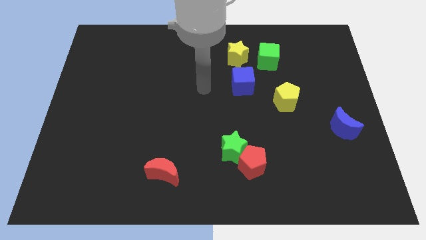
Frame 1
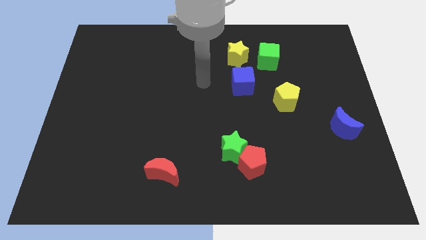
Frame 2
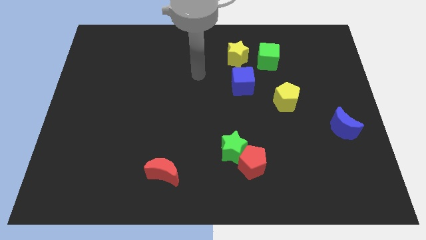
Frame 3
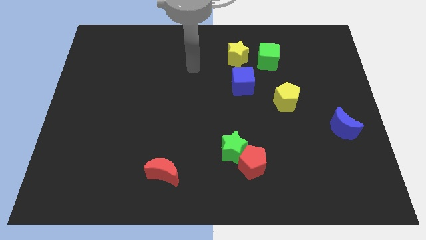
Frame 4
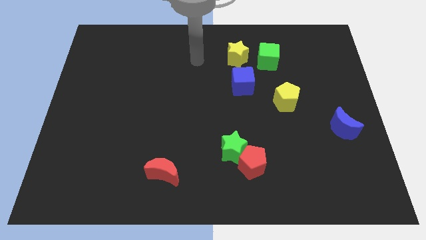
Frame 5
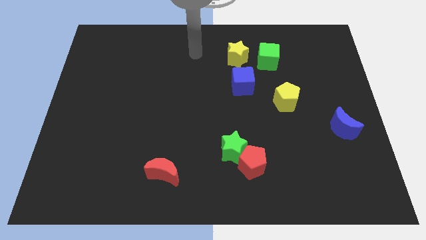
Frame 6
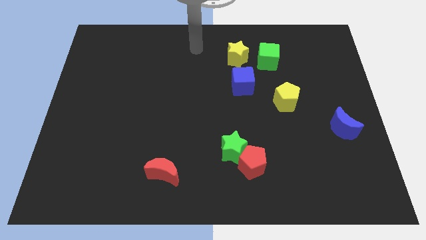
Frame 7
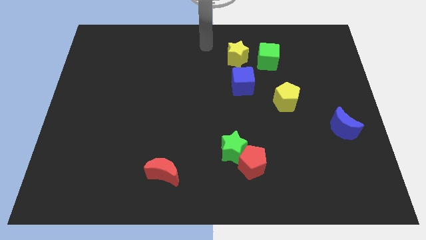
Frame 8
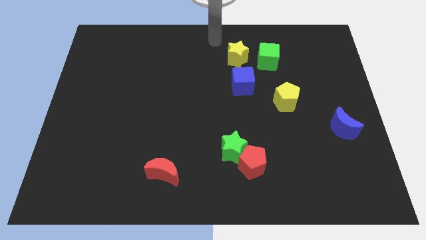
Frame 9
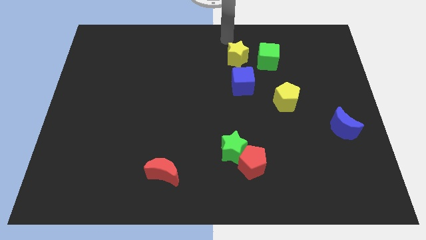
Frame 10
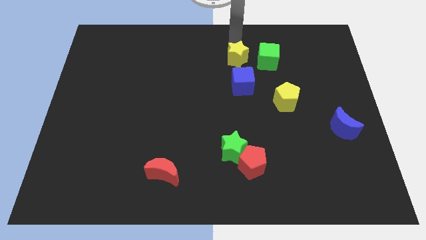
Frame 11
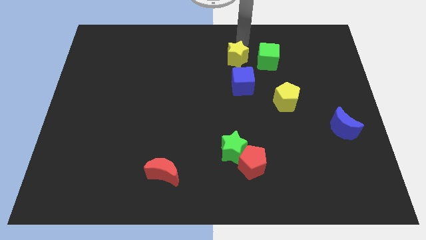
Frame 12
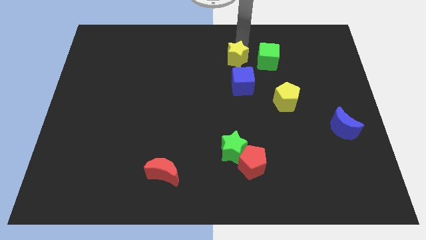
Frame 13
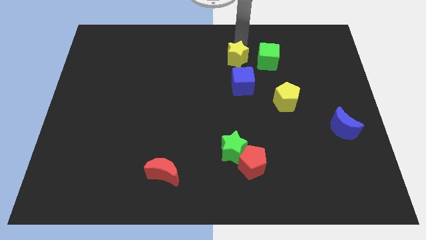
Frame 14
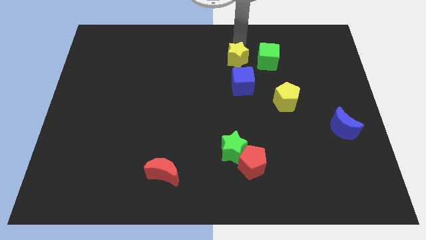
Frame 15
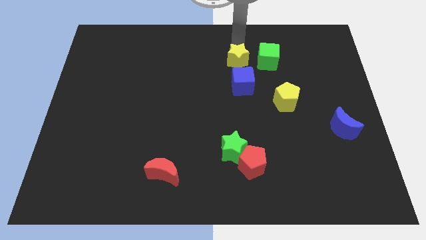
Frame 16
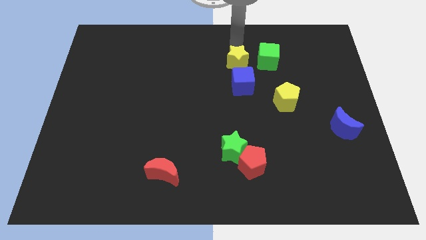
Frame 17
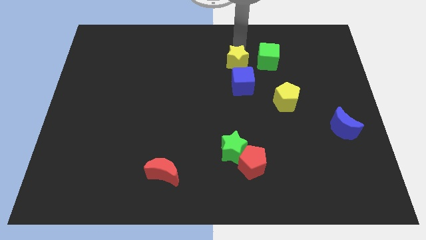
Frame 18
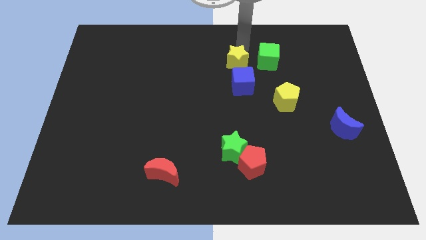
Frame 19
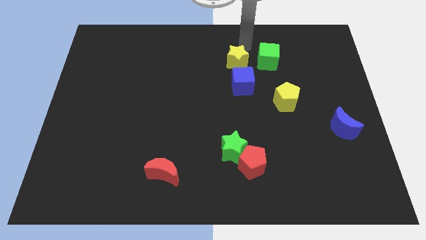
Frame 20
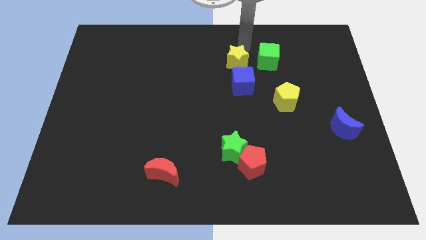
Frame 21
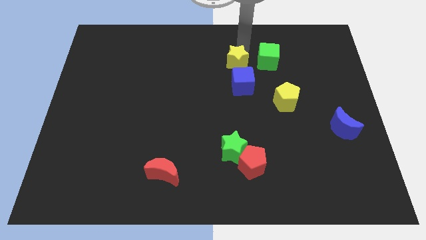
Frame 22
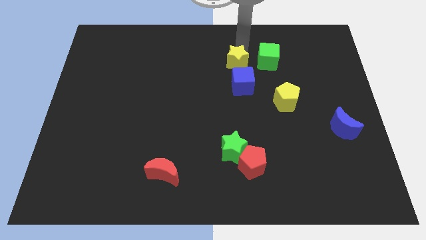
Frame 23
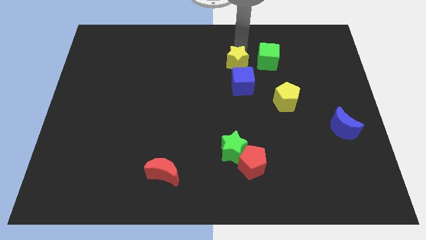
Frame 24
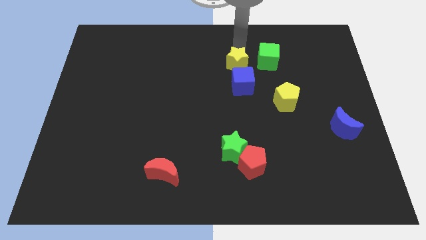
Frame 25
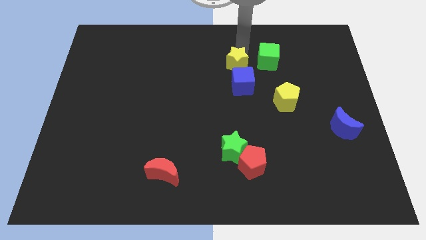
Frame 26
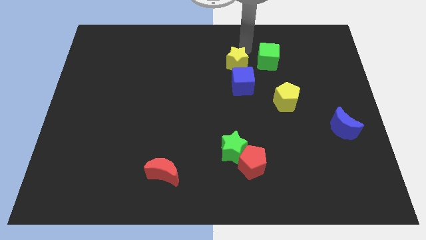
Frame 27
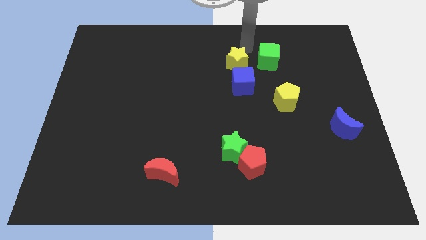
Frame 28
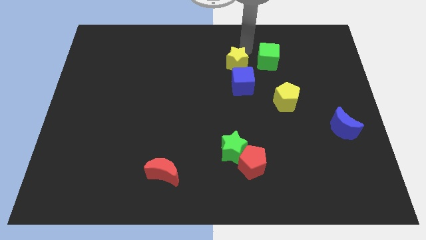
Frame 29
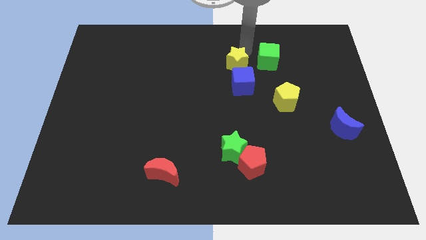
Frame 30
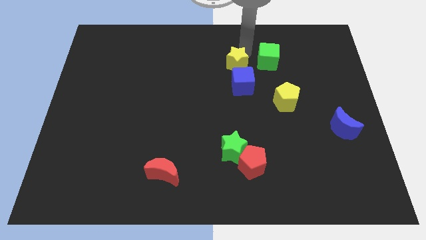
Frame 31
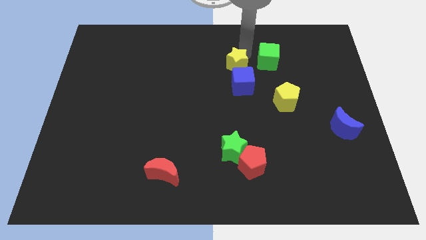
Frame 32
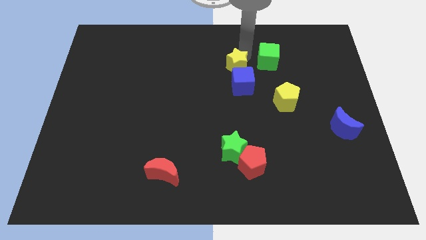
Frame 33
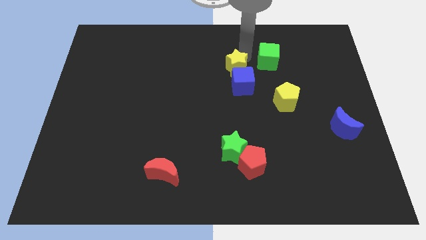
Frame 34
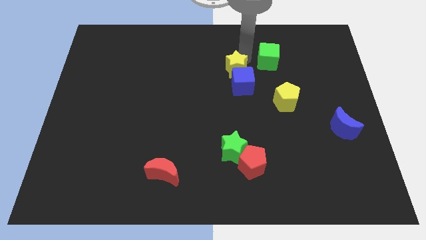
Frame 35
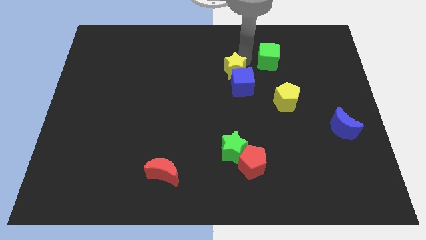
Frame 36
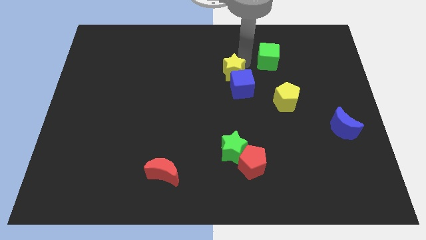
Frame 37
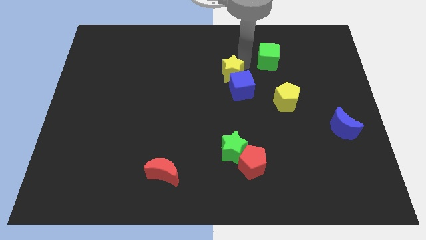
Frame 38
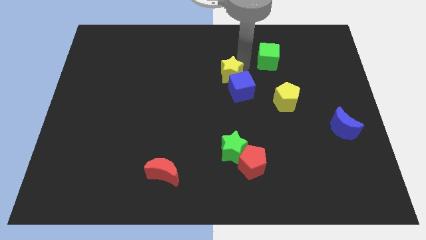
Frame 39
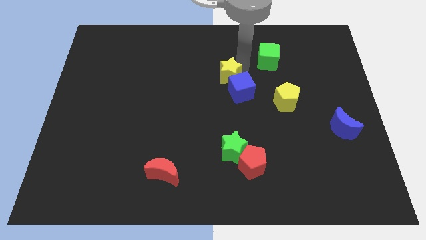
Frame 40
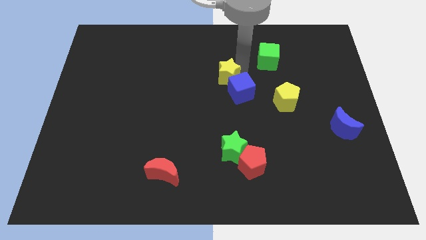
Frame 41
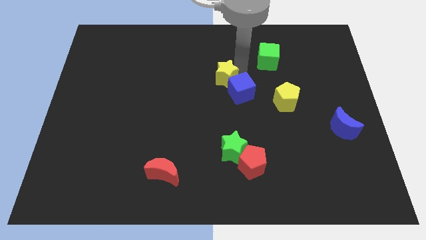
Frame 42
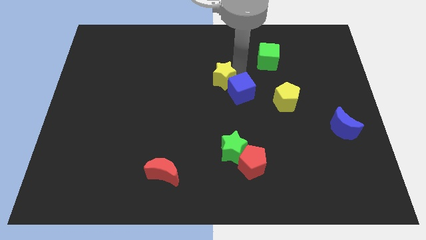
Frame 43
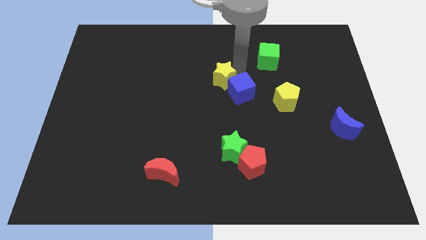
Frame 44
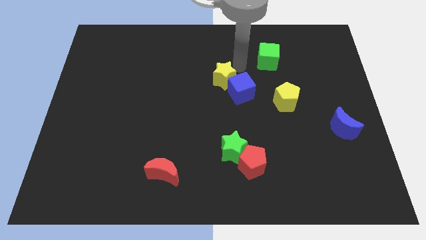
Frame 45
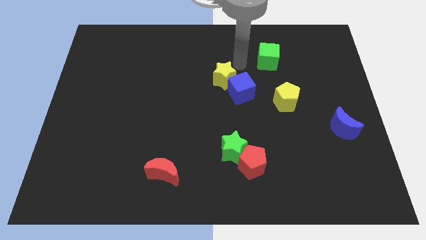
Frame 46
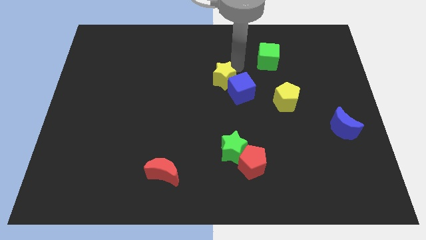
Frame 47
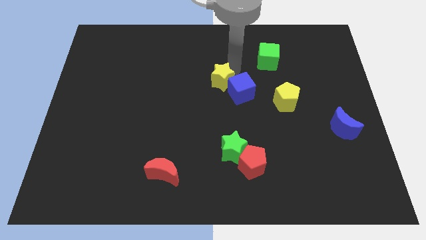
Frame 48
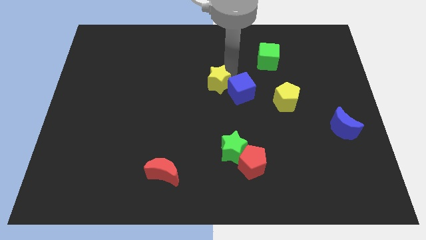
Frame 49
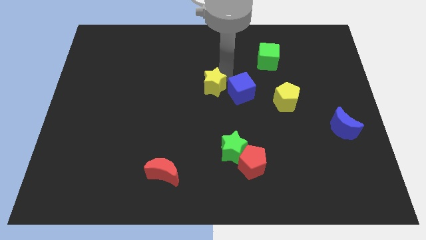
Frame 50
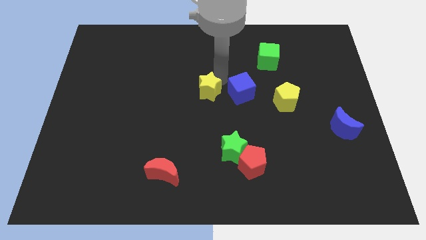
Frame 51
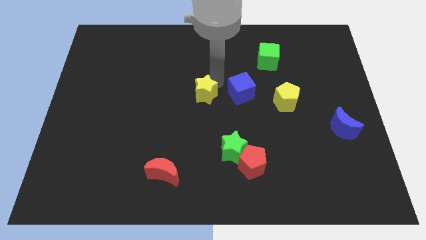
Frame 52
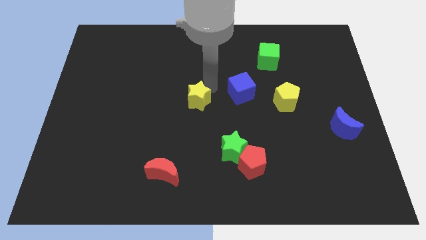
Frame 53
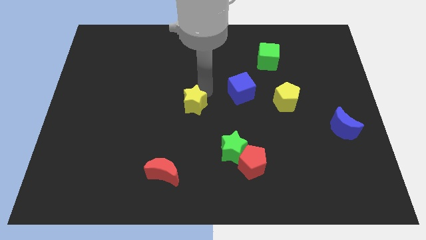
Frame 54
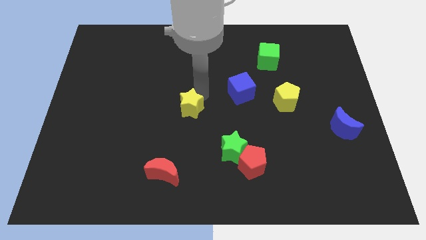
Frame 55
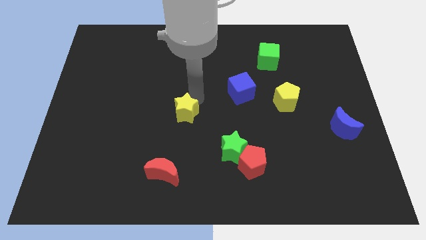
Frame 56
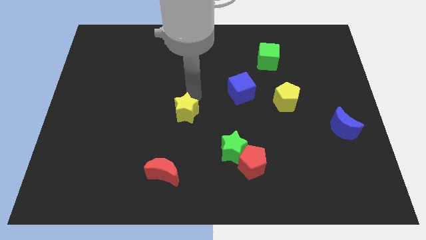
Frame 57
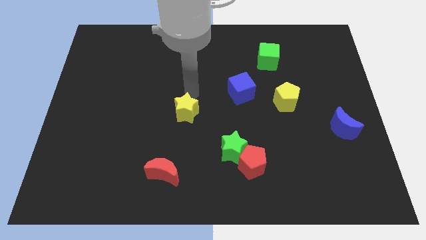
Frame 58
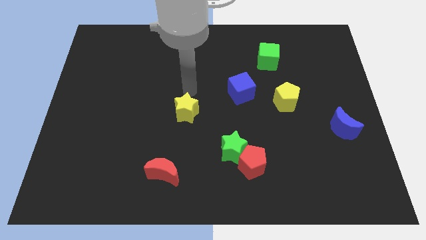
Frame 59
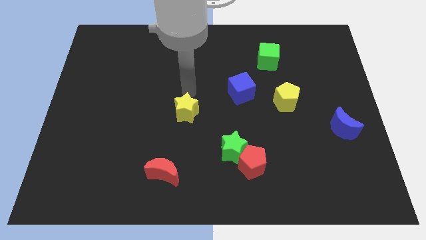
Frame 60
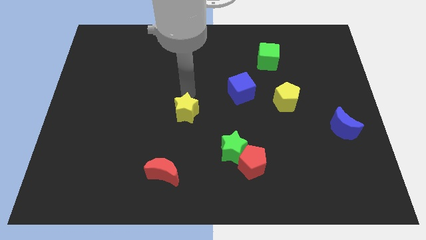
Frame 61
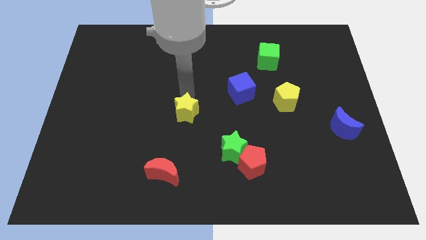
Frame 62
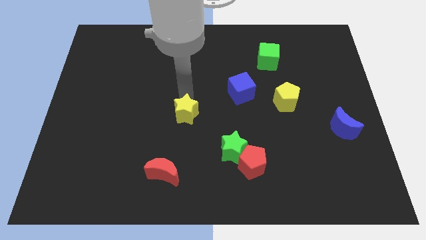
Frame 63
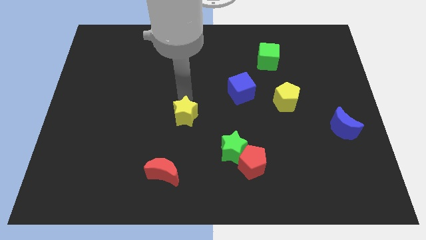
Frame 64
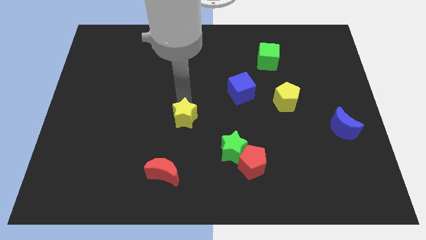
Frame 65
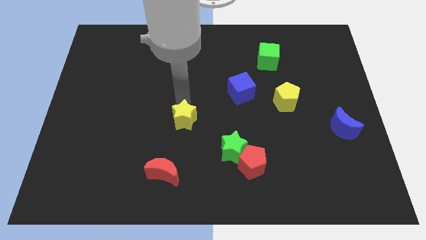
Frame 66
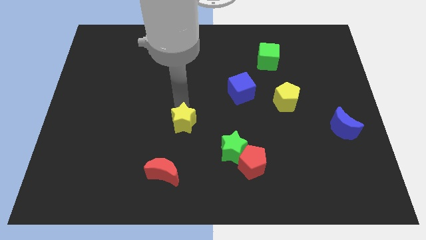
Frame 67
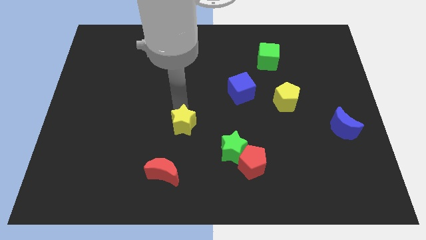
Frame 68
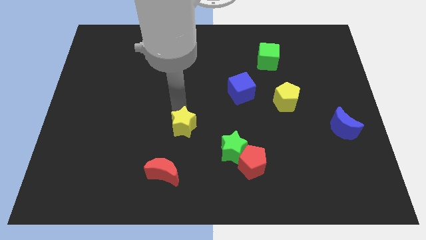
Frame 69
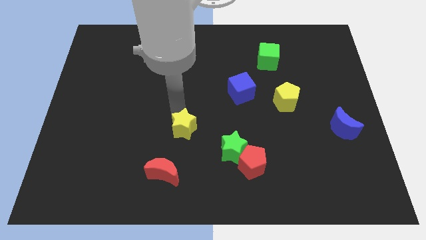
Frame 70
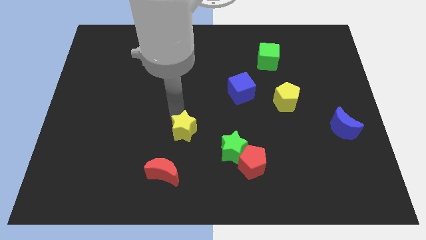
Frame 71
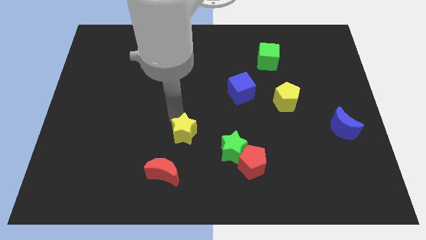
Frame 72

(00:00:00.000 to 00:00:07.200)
move the yellow star to the left side of the green star
